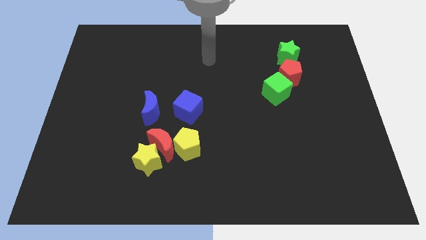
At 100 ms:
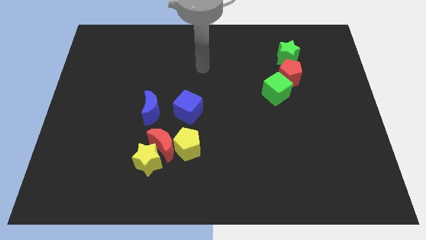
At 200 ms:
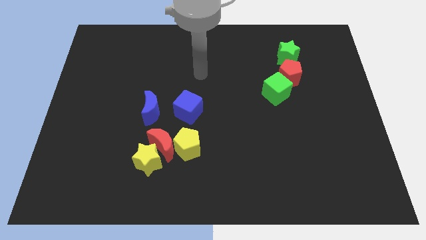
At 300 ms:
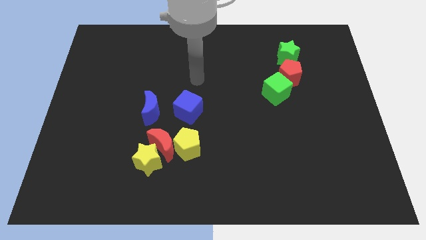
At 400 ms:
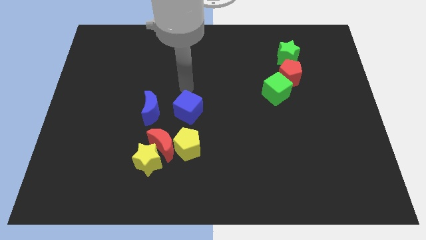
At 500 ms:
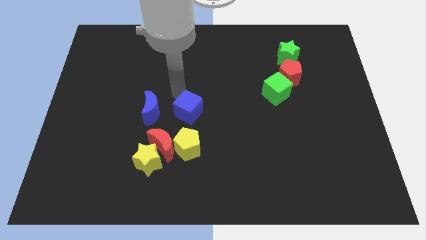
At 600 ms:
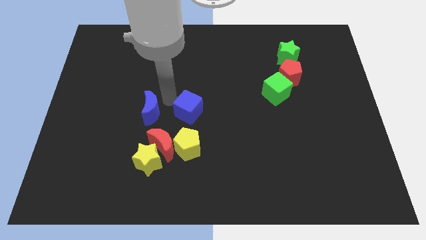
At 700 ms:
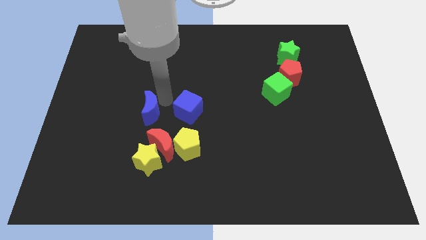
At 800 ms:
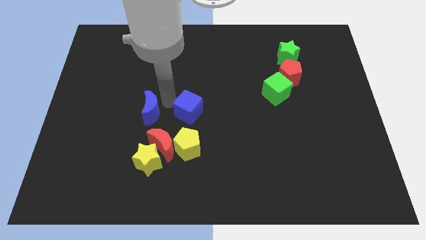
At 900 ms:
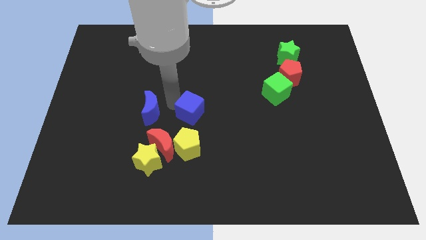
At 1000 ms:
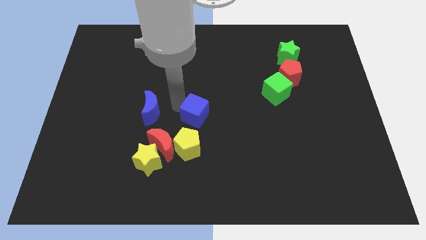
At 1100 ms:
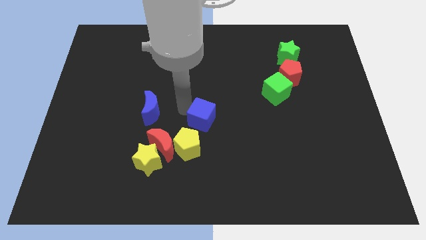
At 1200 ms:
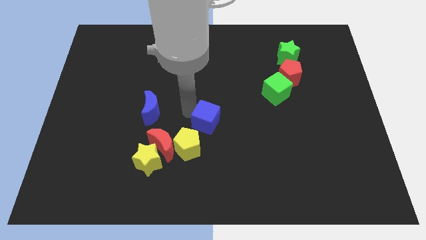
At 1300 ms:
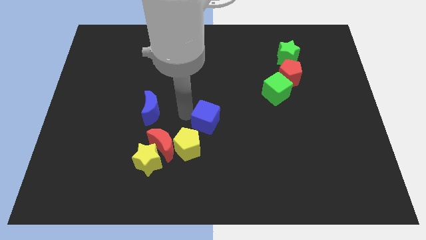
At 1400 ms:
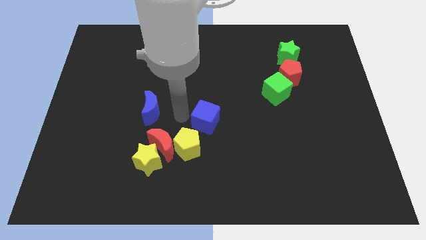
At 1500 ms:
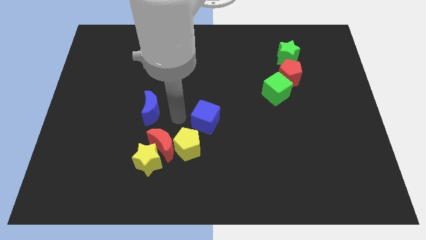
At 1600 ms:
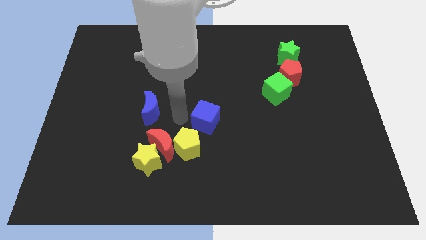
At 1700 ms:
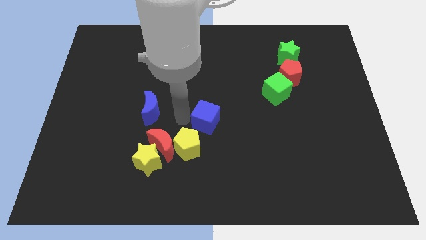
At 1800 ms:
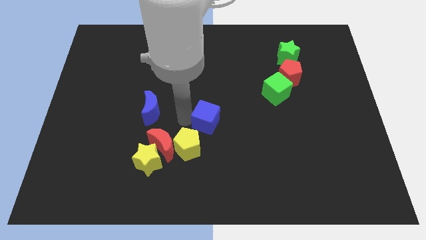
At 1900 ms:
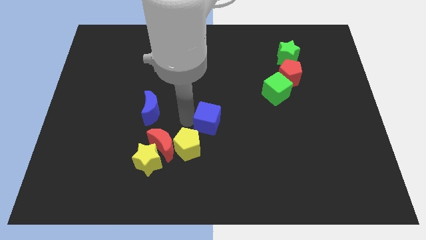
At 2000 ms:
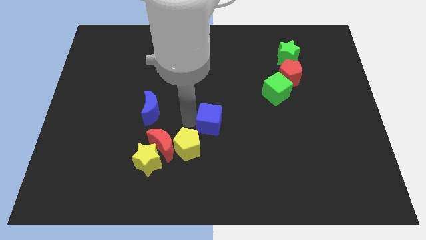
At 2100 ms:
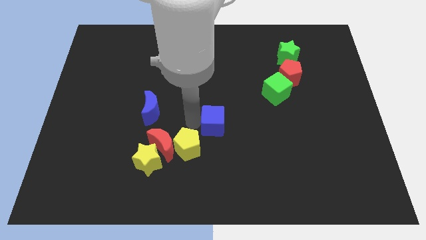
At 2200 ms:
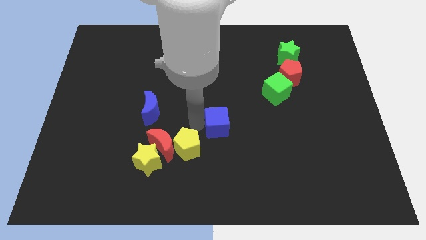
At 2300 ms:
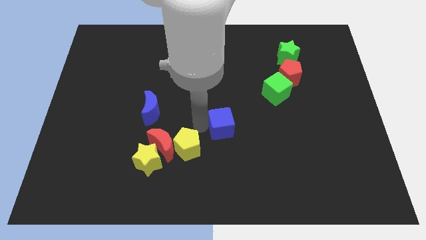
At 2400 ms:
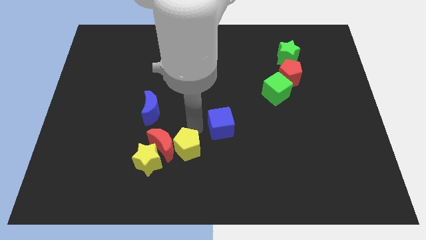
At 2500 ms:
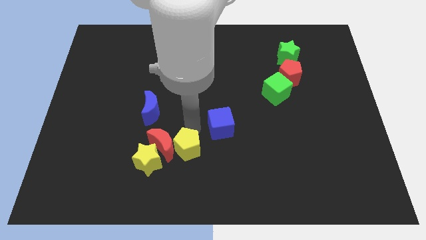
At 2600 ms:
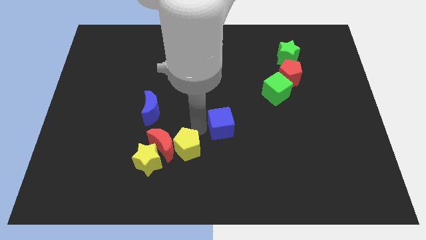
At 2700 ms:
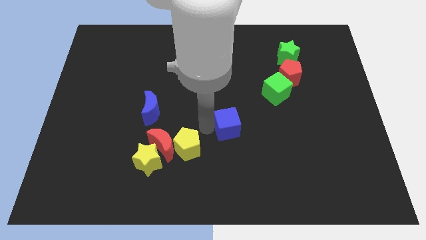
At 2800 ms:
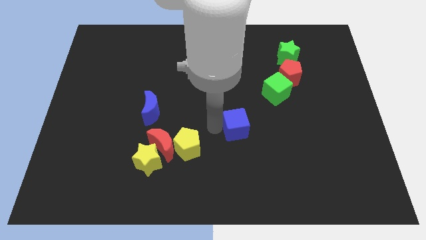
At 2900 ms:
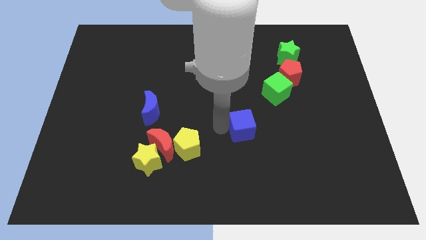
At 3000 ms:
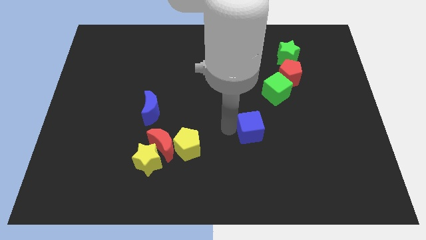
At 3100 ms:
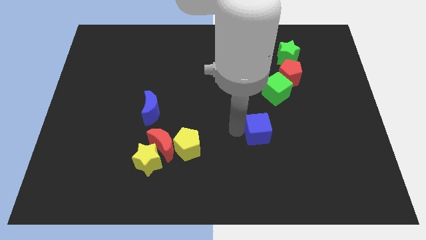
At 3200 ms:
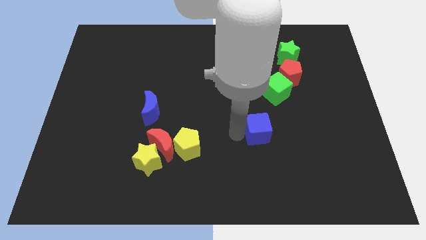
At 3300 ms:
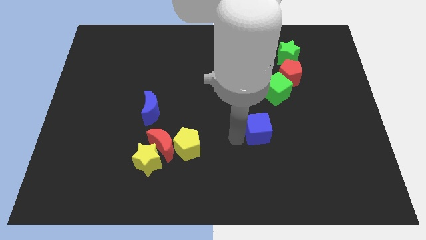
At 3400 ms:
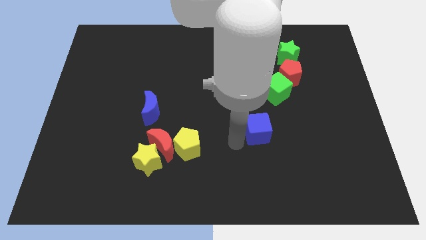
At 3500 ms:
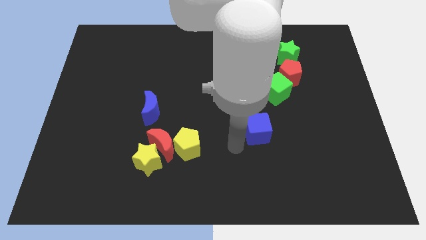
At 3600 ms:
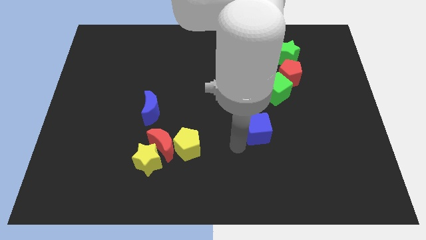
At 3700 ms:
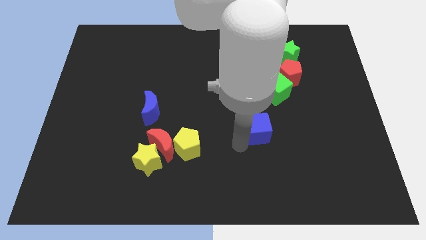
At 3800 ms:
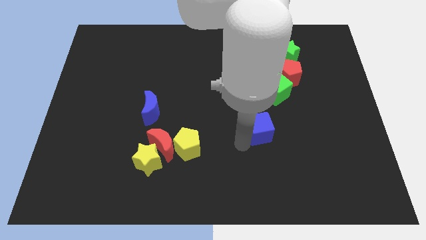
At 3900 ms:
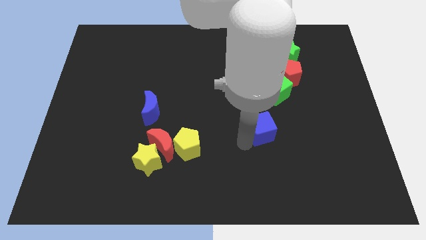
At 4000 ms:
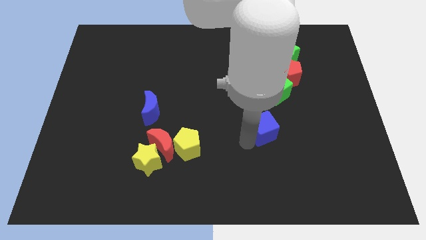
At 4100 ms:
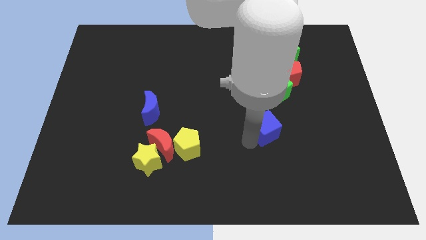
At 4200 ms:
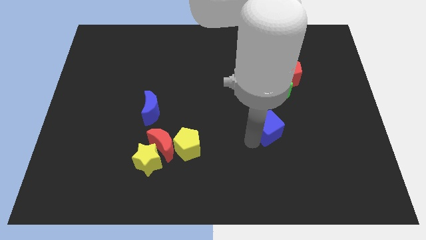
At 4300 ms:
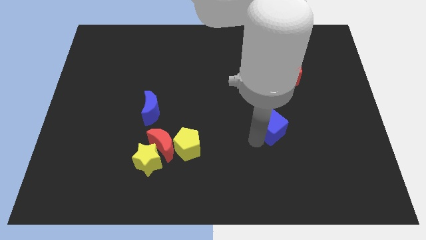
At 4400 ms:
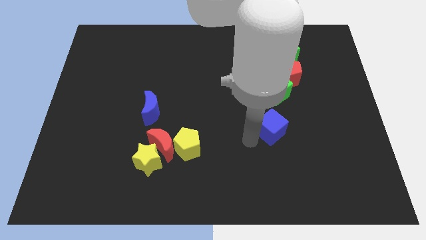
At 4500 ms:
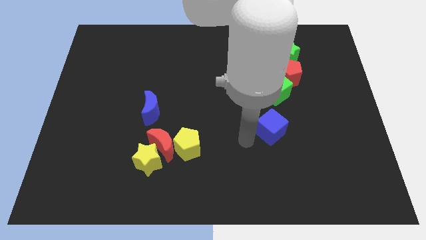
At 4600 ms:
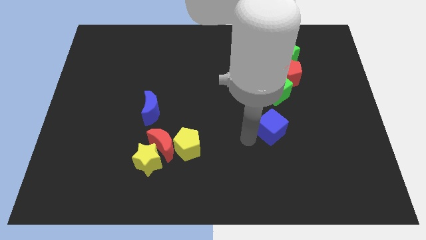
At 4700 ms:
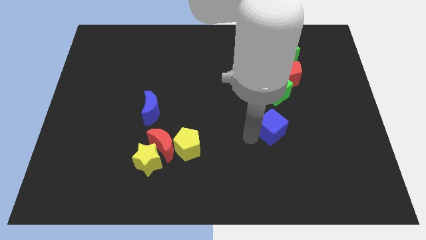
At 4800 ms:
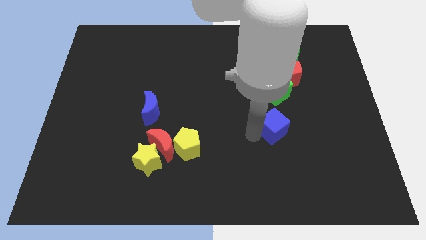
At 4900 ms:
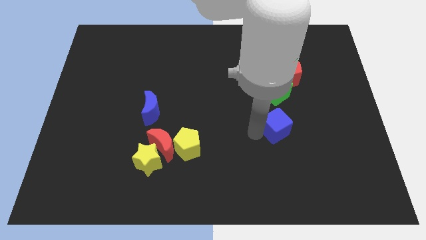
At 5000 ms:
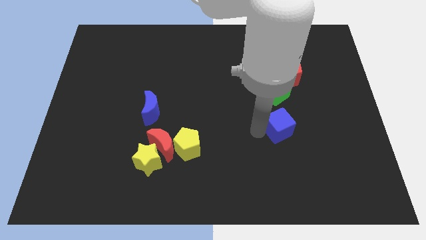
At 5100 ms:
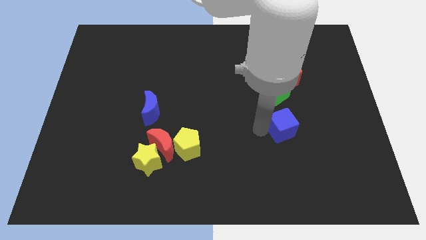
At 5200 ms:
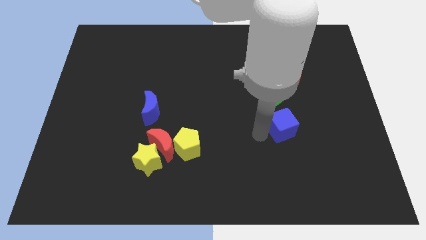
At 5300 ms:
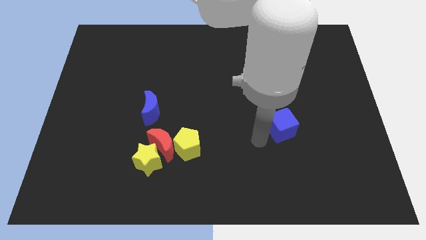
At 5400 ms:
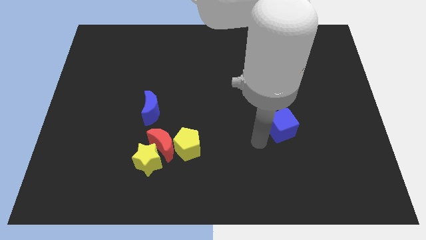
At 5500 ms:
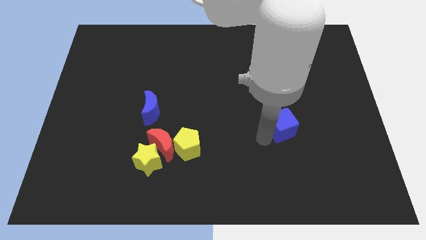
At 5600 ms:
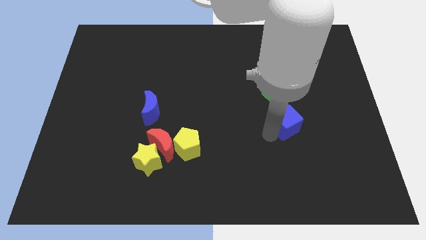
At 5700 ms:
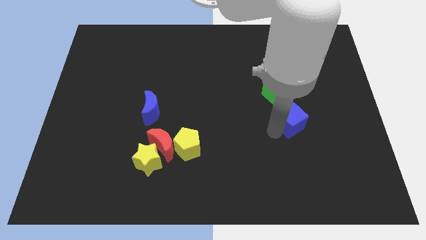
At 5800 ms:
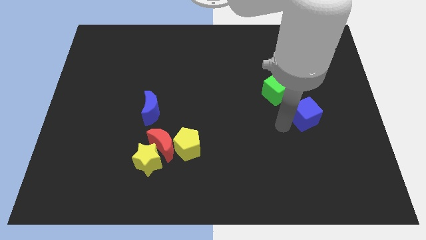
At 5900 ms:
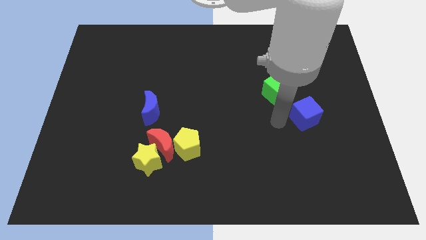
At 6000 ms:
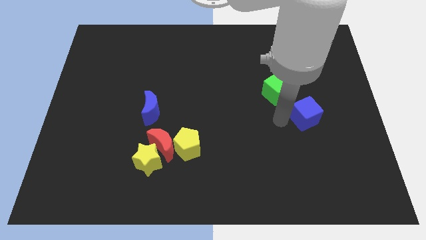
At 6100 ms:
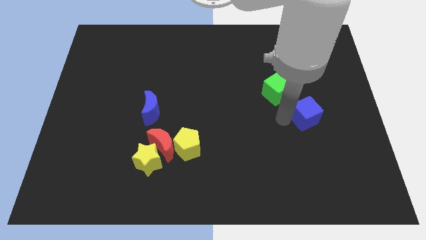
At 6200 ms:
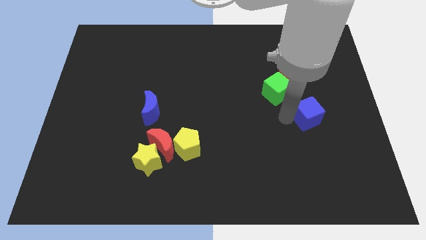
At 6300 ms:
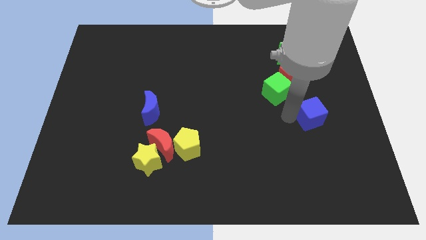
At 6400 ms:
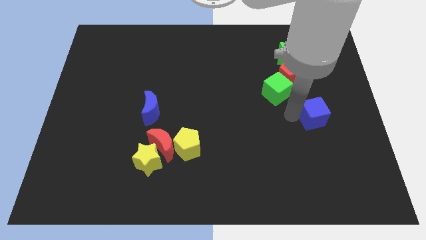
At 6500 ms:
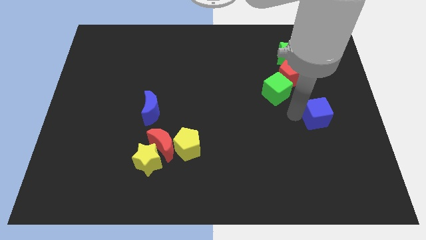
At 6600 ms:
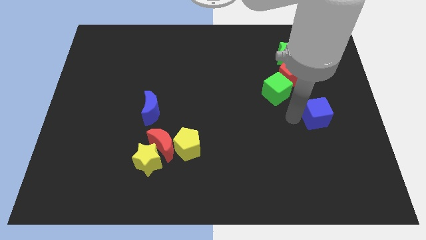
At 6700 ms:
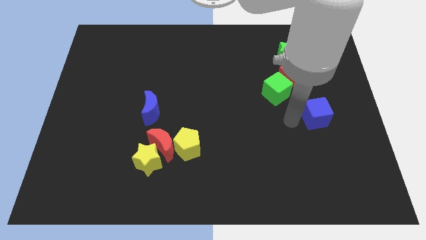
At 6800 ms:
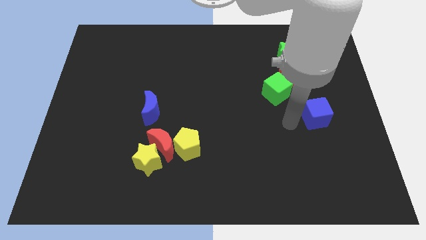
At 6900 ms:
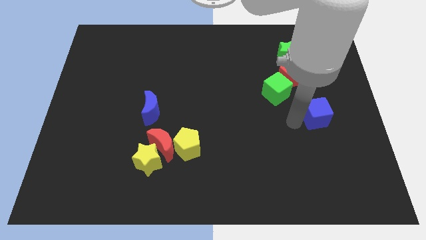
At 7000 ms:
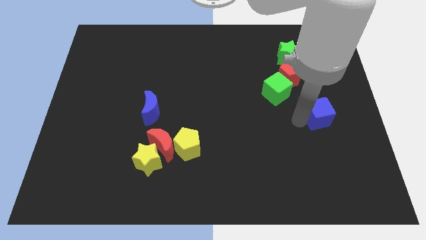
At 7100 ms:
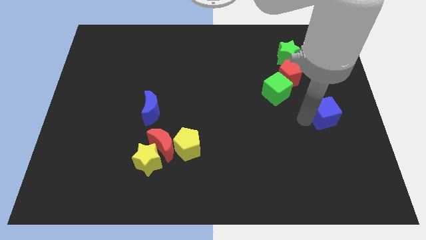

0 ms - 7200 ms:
put the blue cube to the right side
